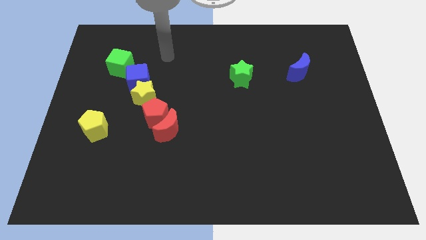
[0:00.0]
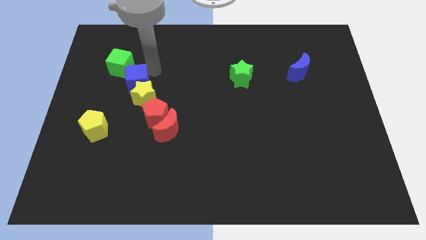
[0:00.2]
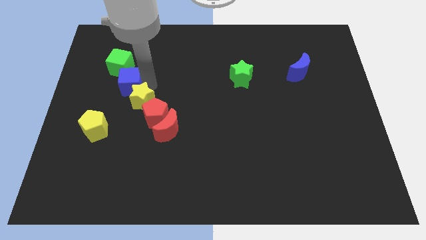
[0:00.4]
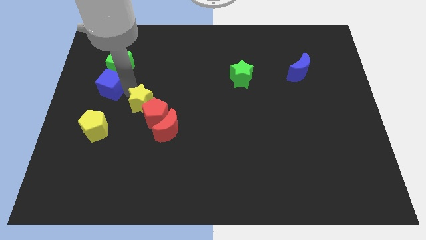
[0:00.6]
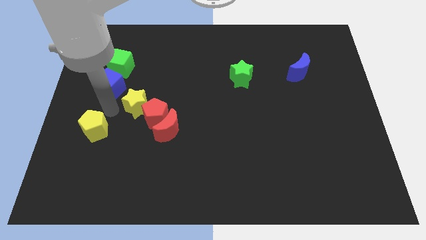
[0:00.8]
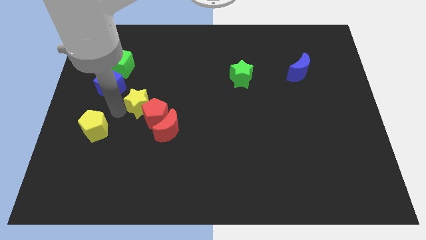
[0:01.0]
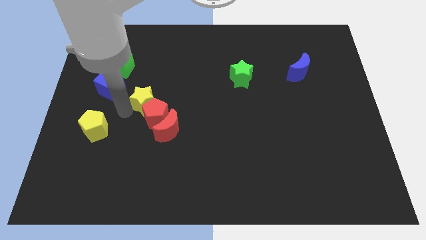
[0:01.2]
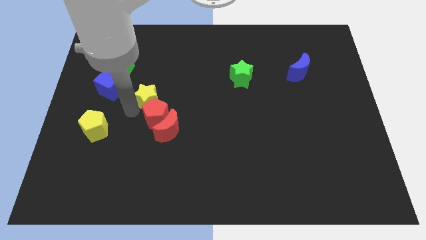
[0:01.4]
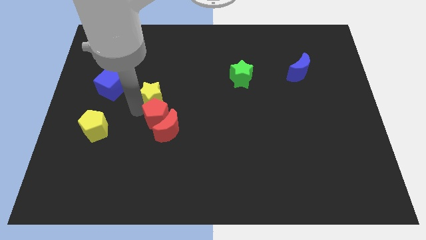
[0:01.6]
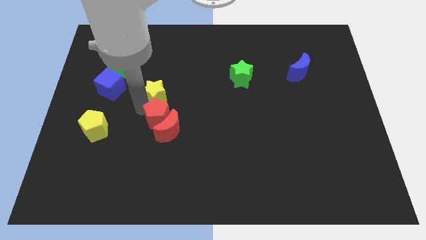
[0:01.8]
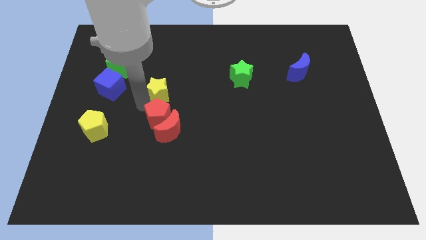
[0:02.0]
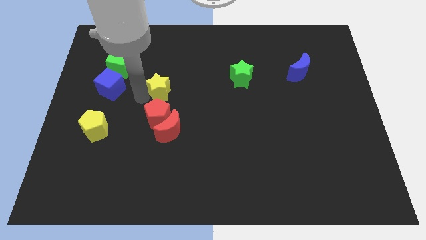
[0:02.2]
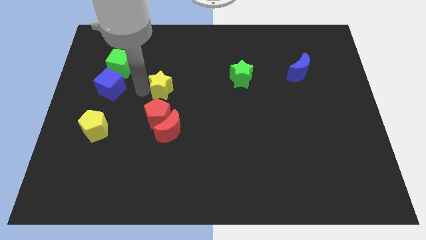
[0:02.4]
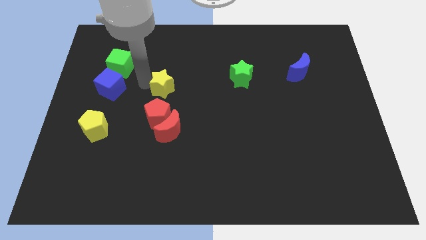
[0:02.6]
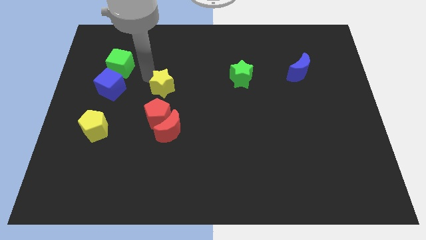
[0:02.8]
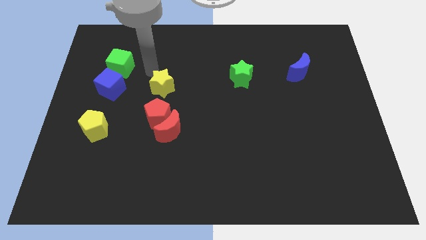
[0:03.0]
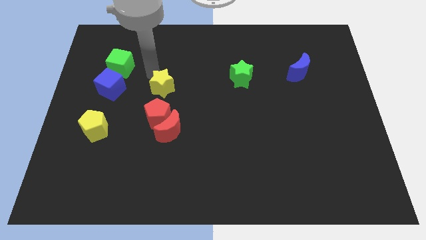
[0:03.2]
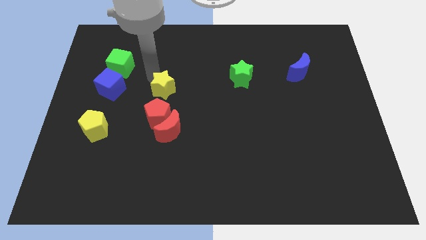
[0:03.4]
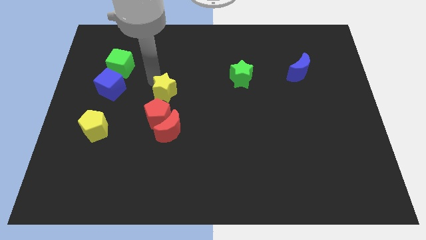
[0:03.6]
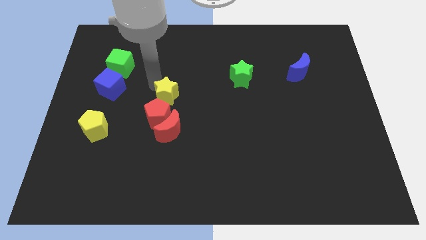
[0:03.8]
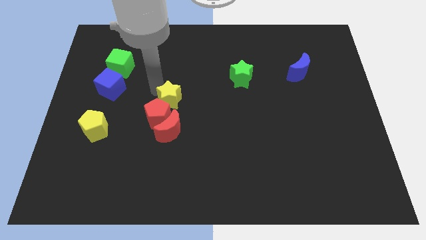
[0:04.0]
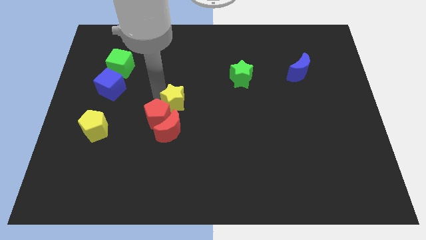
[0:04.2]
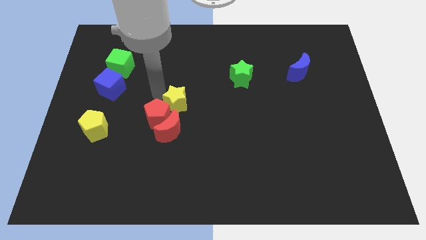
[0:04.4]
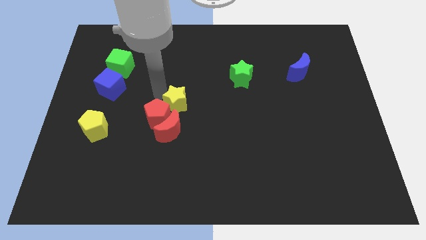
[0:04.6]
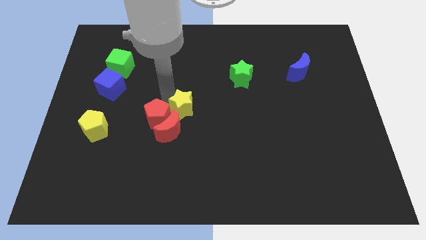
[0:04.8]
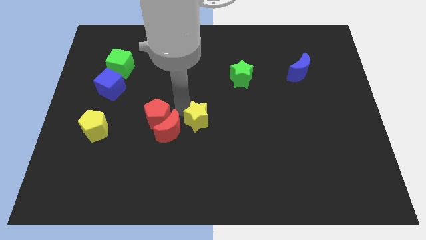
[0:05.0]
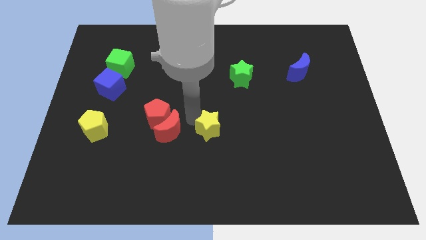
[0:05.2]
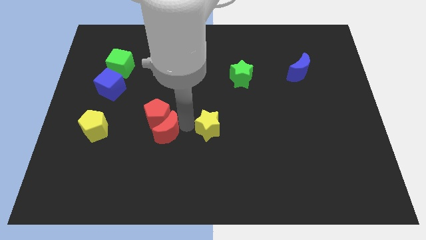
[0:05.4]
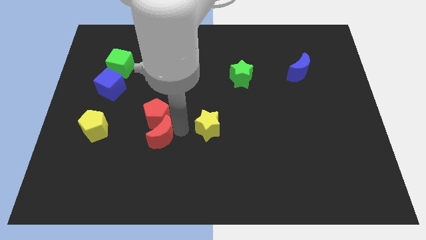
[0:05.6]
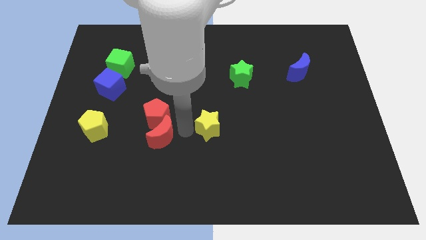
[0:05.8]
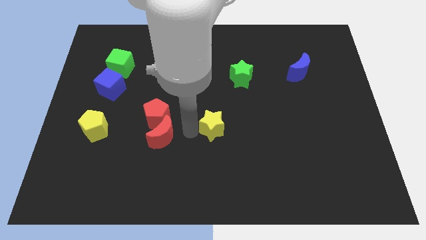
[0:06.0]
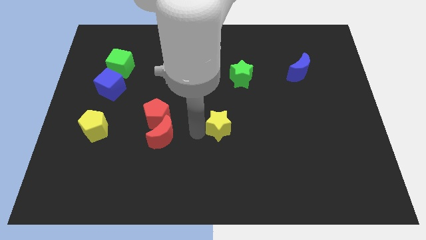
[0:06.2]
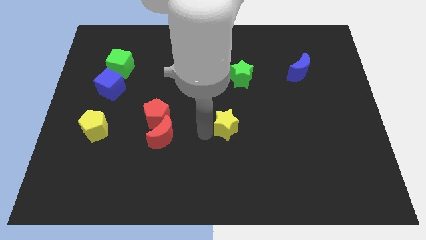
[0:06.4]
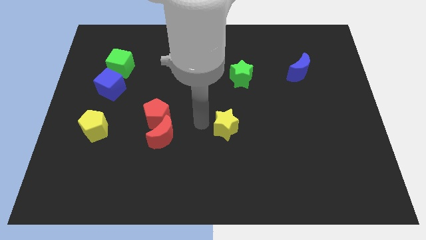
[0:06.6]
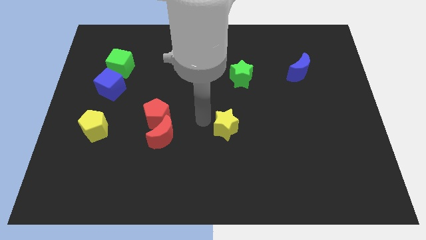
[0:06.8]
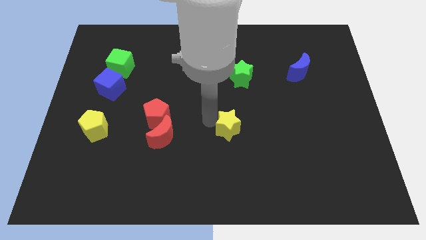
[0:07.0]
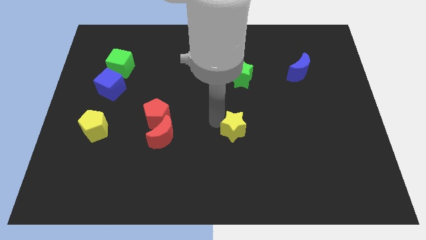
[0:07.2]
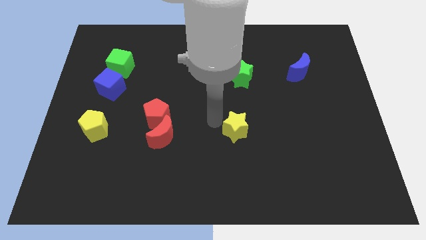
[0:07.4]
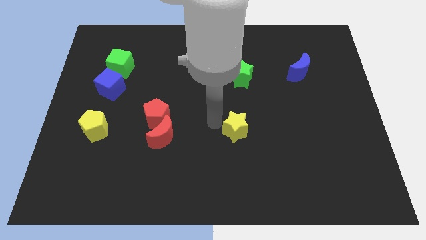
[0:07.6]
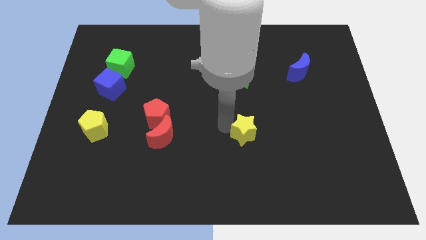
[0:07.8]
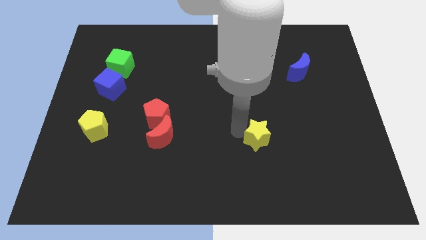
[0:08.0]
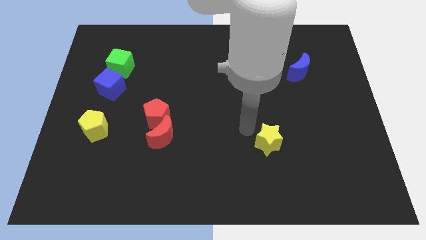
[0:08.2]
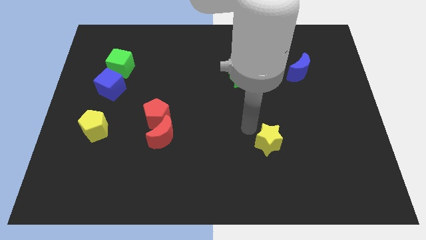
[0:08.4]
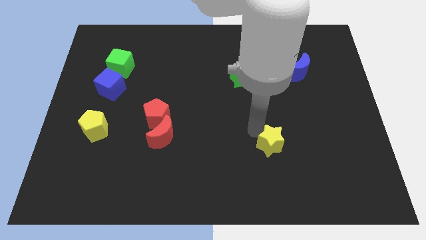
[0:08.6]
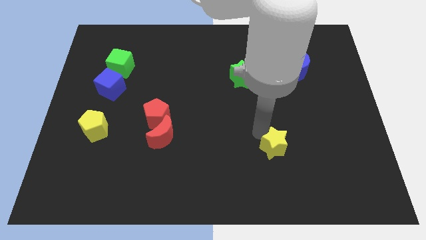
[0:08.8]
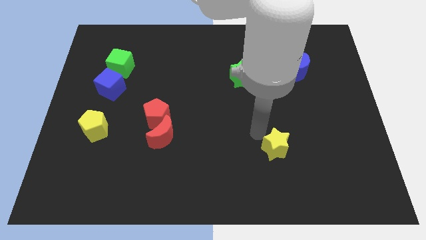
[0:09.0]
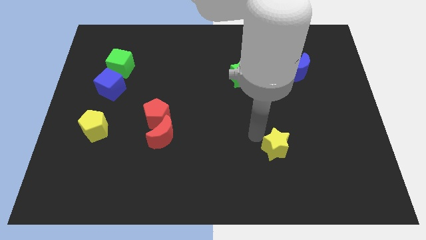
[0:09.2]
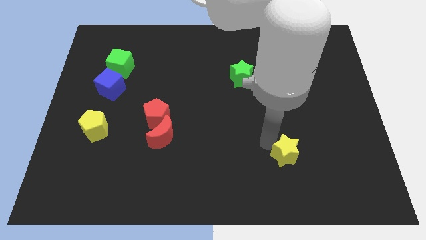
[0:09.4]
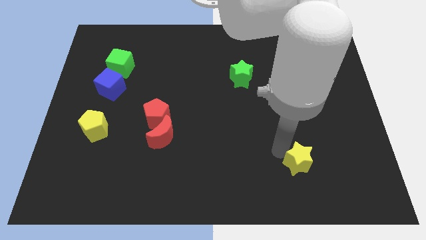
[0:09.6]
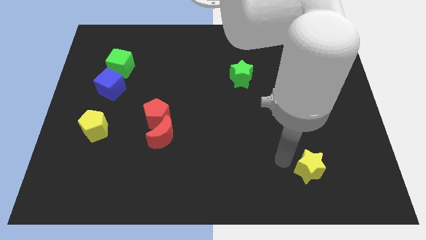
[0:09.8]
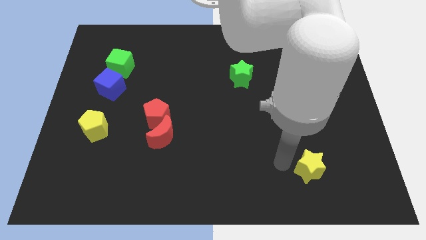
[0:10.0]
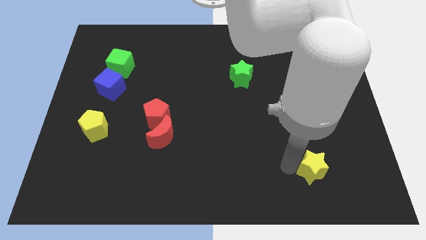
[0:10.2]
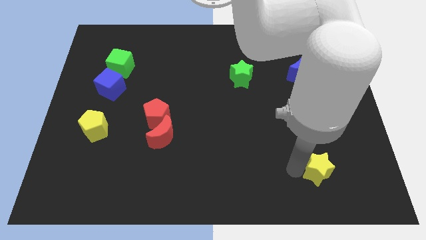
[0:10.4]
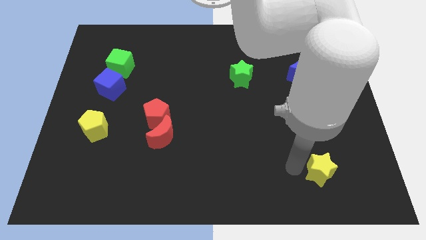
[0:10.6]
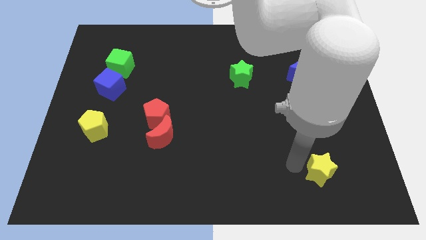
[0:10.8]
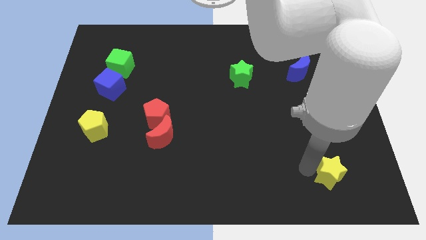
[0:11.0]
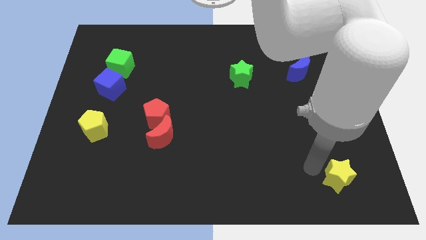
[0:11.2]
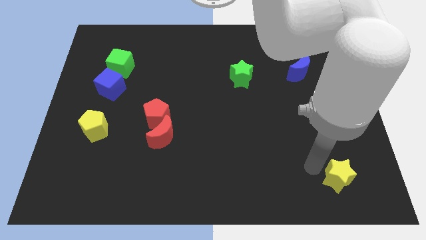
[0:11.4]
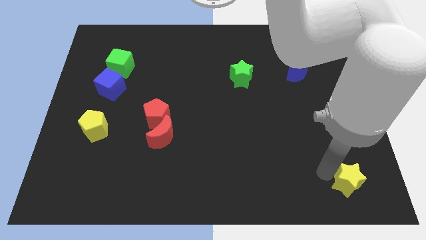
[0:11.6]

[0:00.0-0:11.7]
push the yellow star to the bottom right of the board

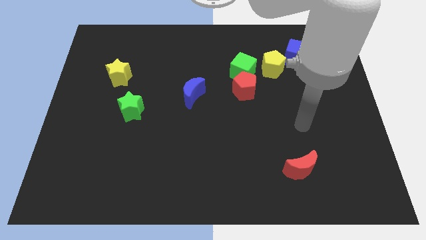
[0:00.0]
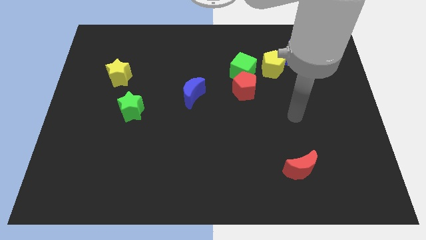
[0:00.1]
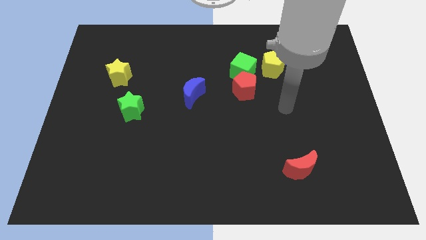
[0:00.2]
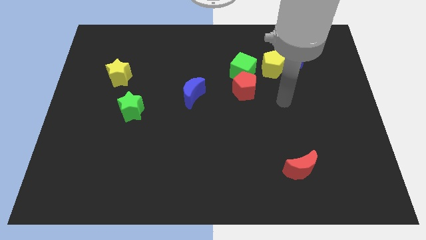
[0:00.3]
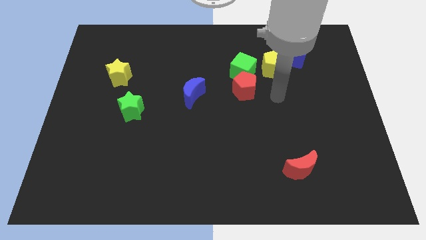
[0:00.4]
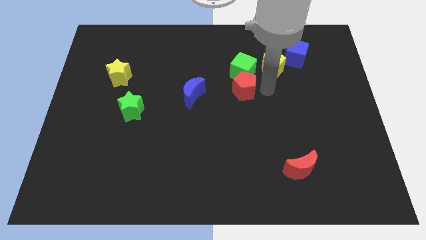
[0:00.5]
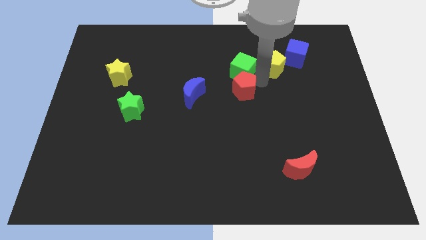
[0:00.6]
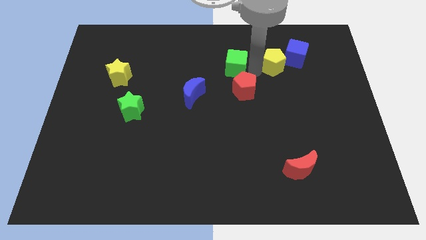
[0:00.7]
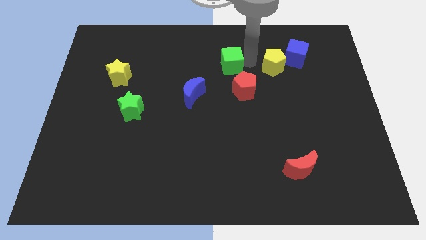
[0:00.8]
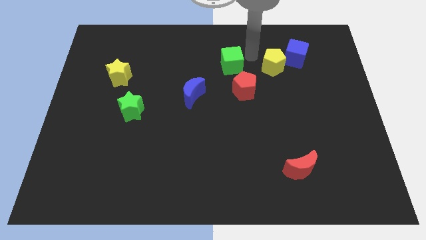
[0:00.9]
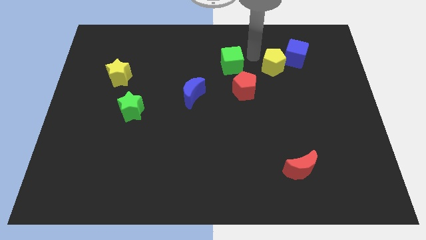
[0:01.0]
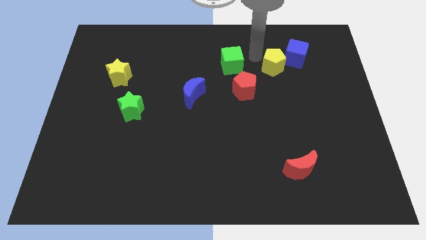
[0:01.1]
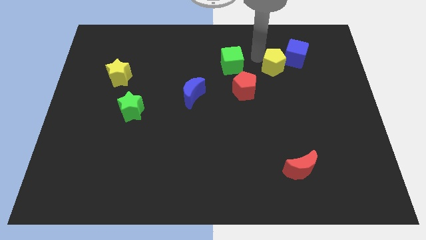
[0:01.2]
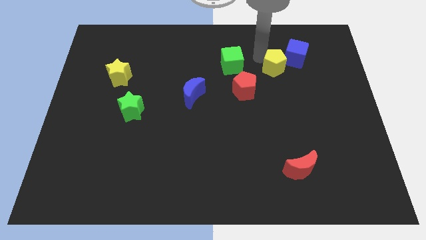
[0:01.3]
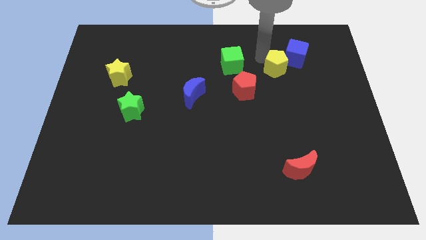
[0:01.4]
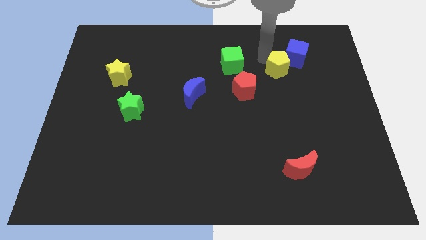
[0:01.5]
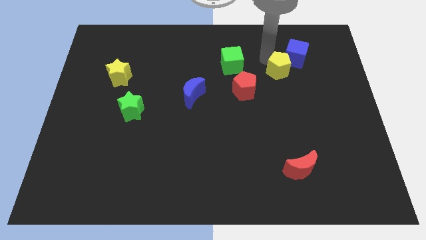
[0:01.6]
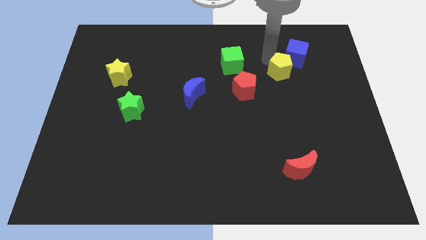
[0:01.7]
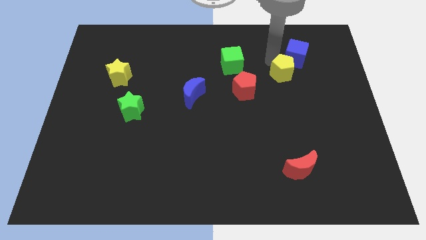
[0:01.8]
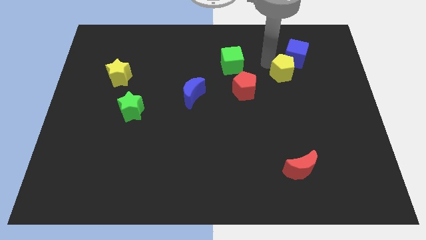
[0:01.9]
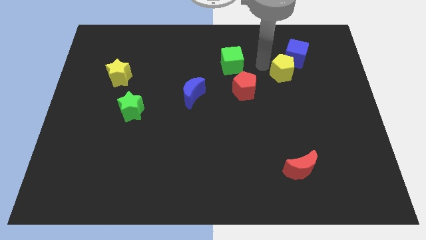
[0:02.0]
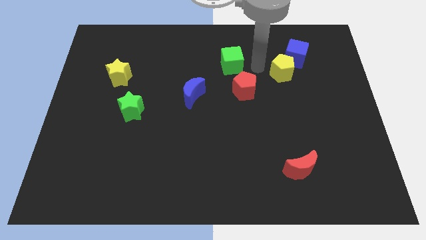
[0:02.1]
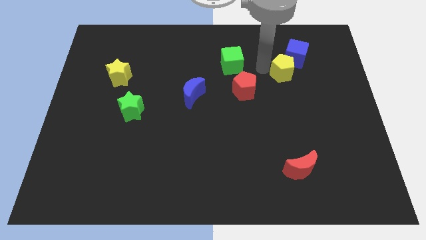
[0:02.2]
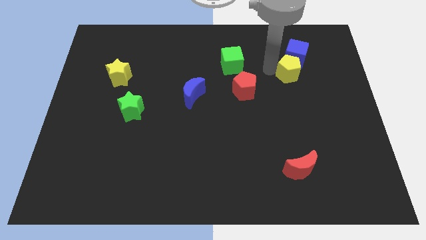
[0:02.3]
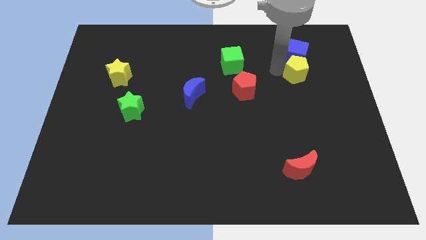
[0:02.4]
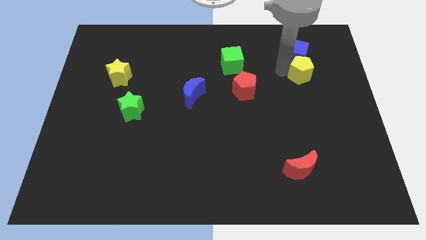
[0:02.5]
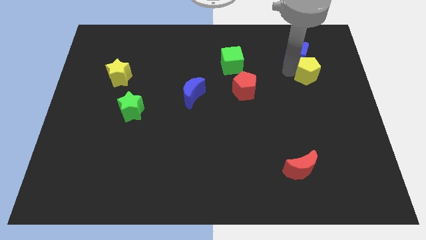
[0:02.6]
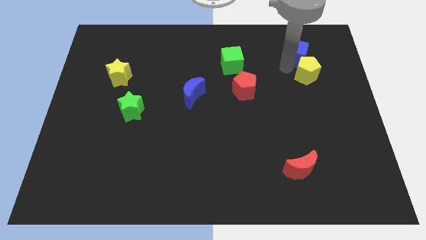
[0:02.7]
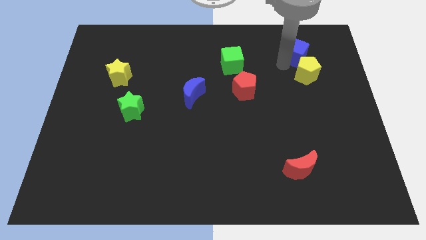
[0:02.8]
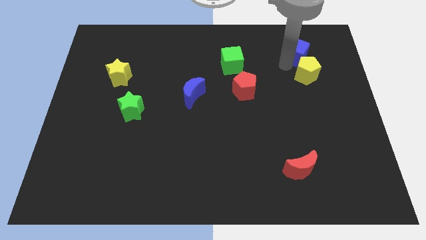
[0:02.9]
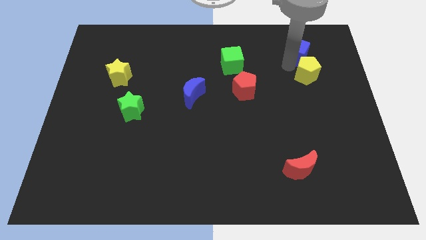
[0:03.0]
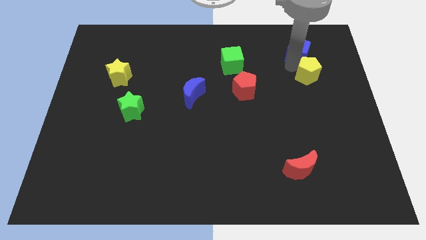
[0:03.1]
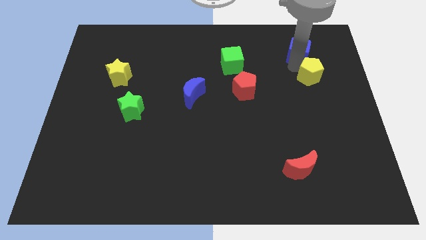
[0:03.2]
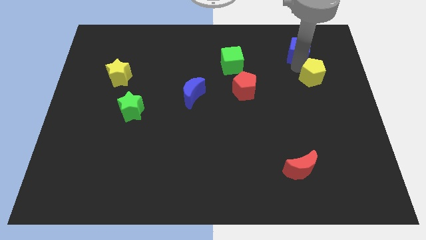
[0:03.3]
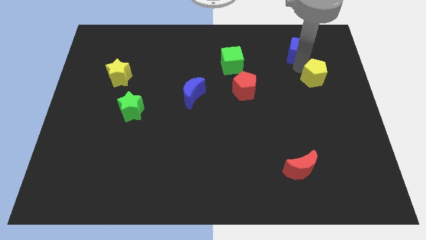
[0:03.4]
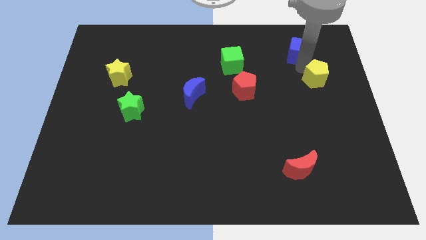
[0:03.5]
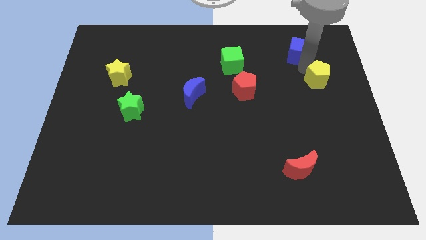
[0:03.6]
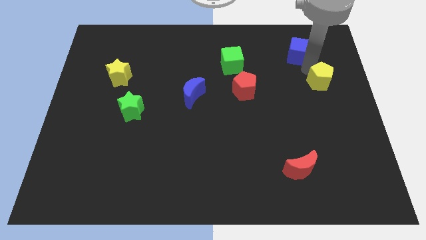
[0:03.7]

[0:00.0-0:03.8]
move the yellow pentagon to the right side of the board
